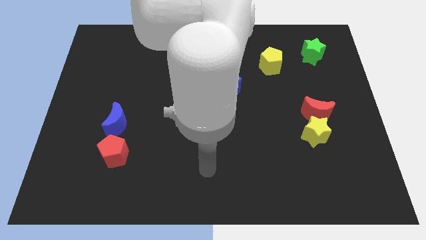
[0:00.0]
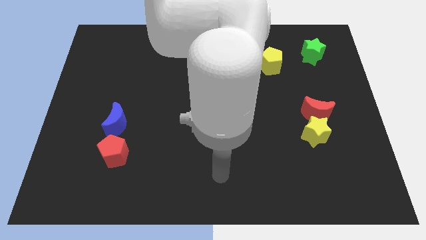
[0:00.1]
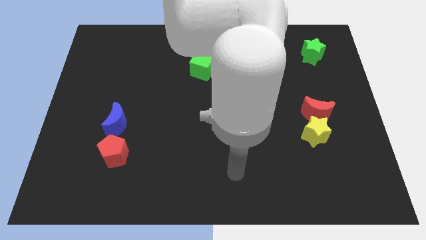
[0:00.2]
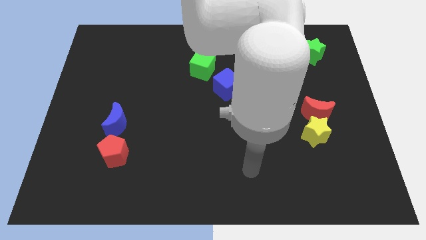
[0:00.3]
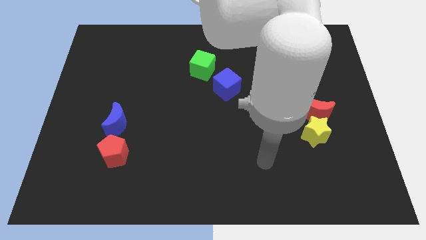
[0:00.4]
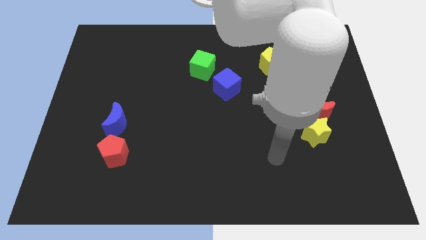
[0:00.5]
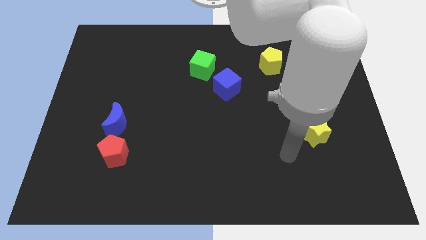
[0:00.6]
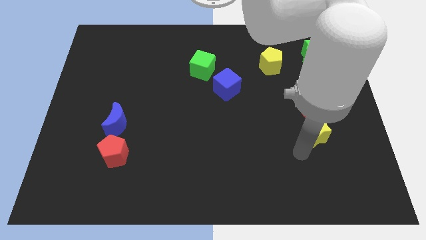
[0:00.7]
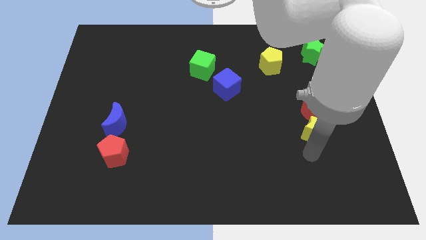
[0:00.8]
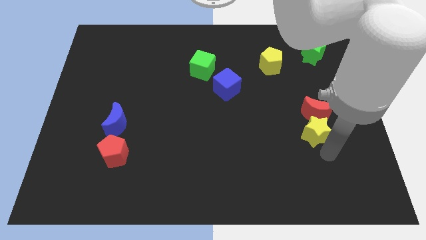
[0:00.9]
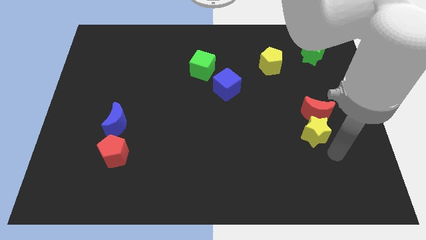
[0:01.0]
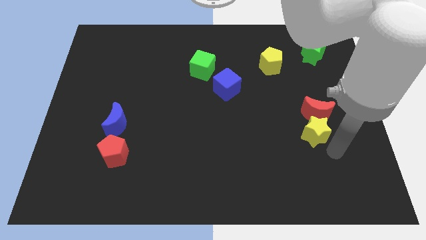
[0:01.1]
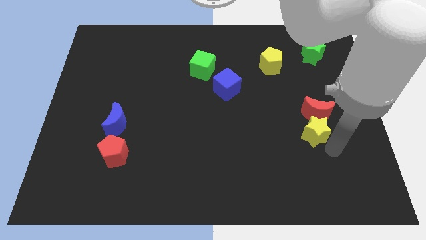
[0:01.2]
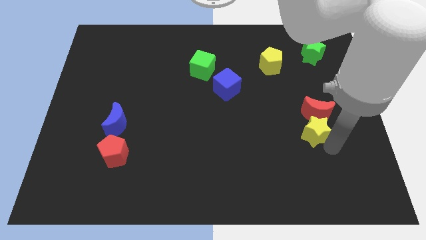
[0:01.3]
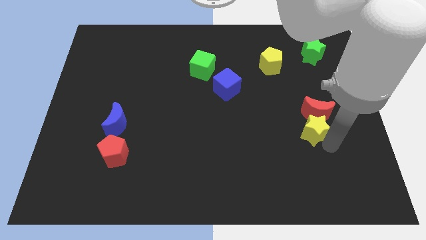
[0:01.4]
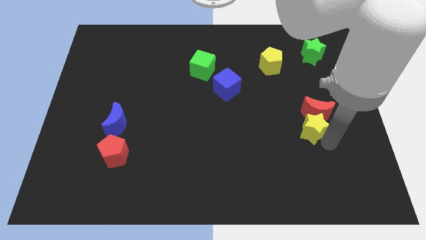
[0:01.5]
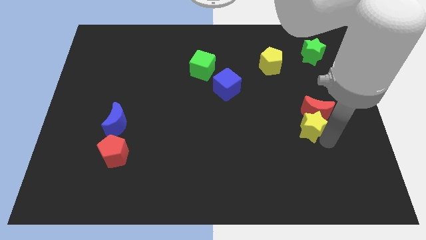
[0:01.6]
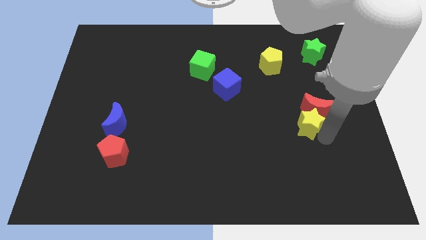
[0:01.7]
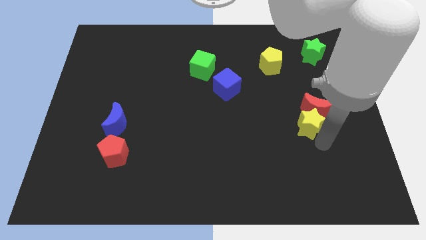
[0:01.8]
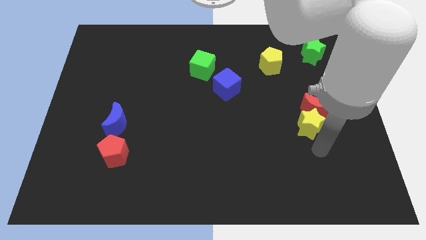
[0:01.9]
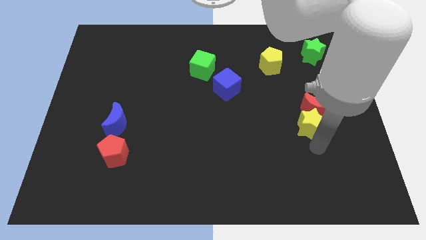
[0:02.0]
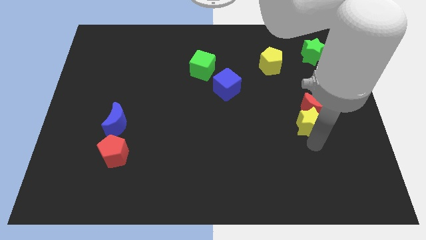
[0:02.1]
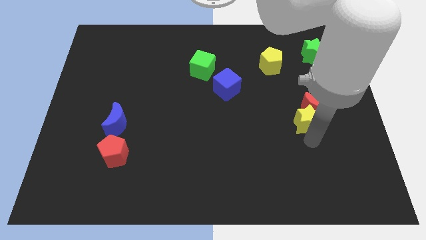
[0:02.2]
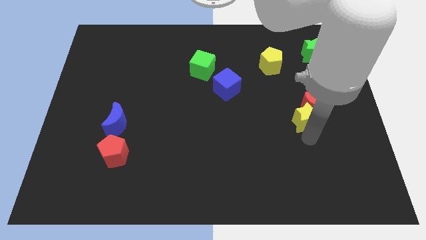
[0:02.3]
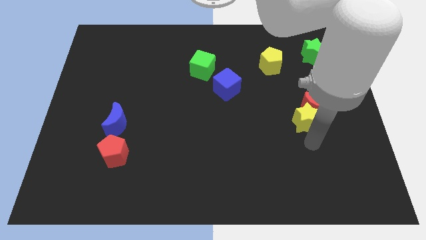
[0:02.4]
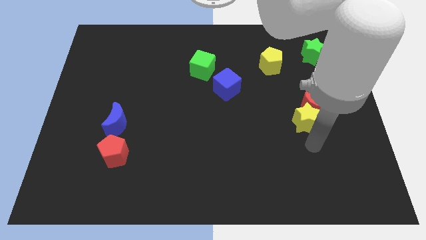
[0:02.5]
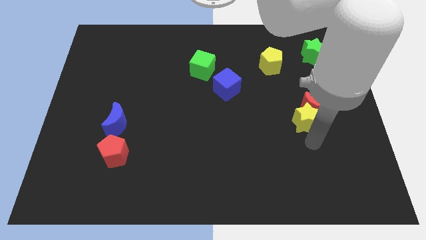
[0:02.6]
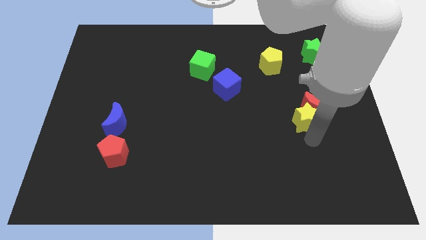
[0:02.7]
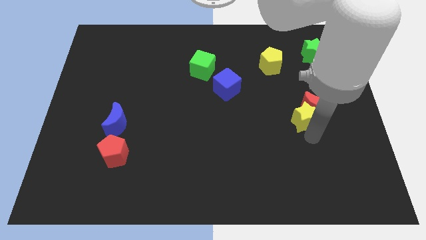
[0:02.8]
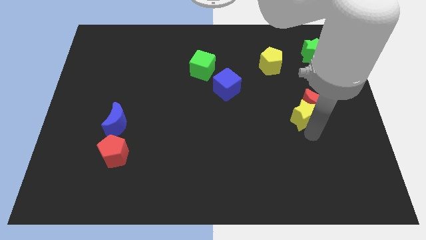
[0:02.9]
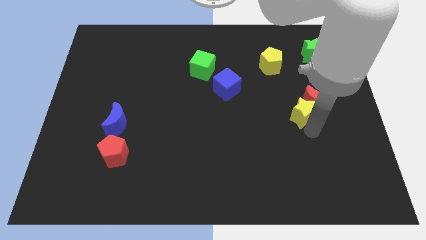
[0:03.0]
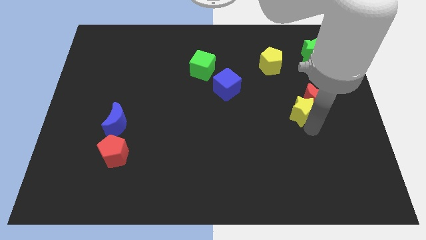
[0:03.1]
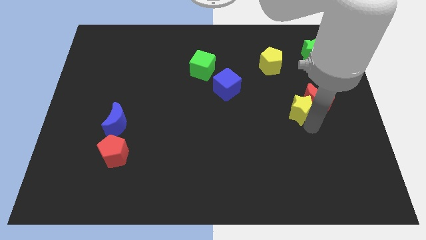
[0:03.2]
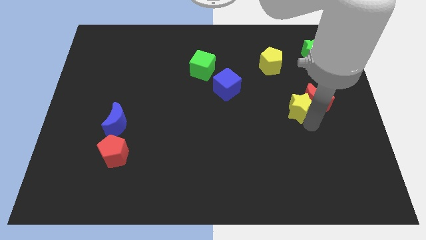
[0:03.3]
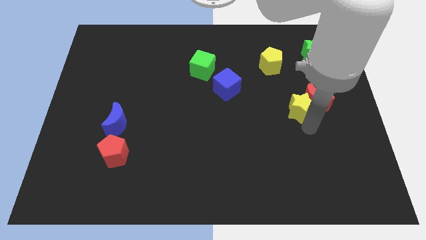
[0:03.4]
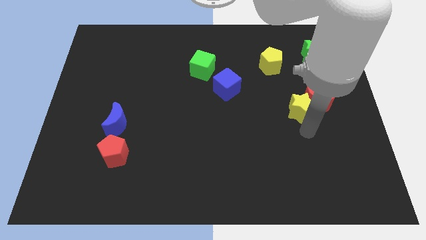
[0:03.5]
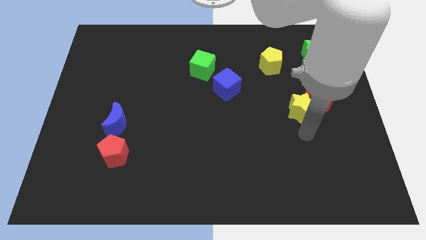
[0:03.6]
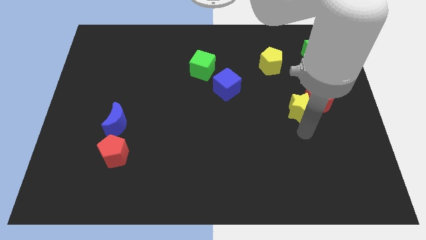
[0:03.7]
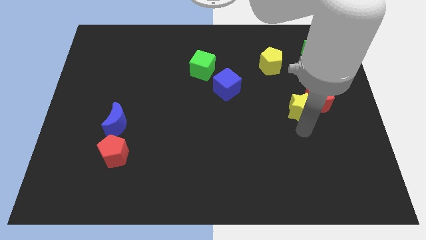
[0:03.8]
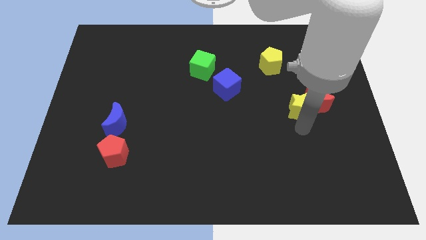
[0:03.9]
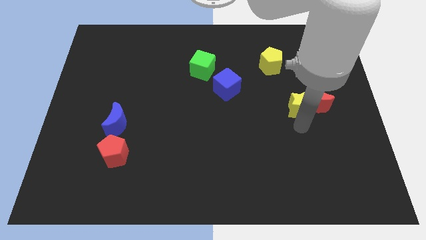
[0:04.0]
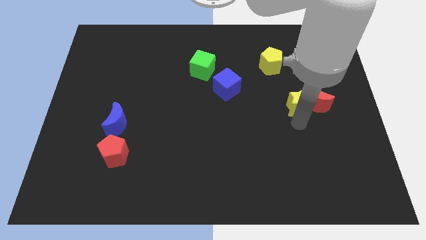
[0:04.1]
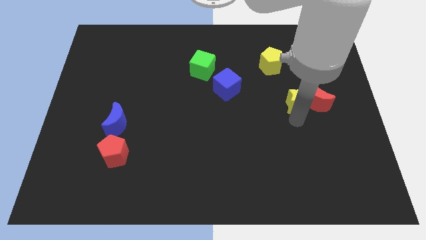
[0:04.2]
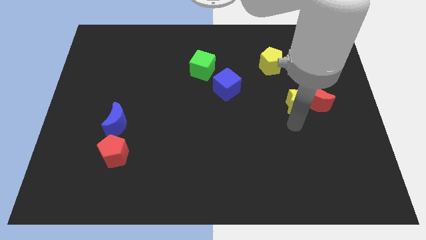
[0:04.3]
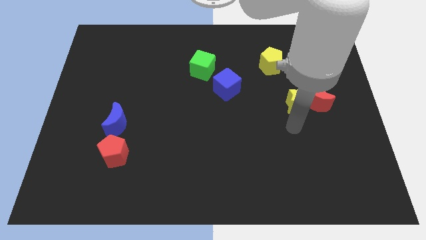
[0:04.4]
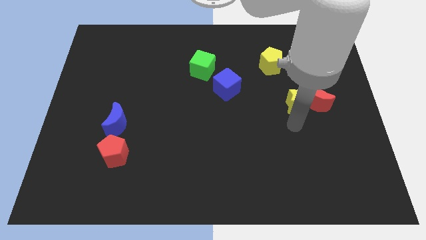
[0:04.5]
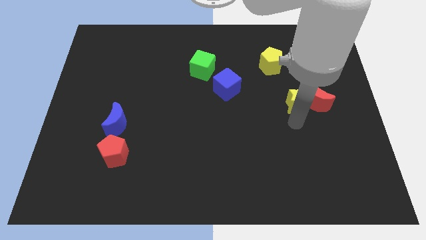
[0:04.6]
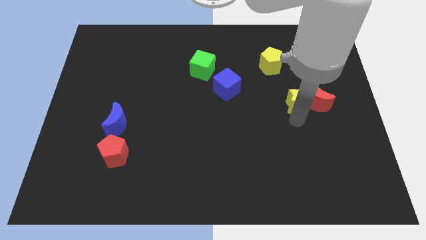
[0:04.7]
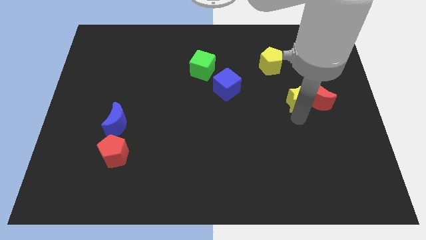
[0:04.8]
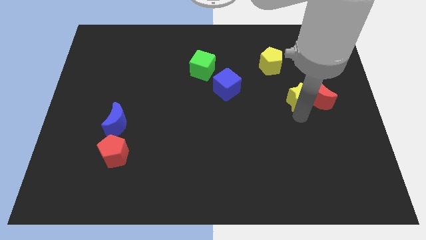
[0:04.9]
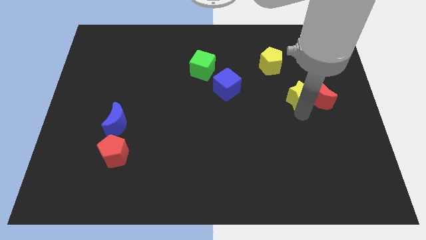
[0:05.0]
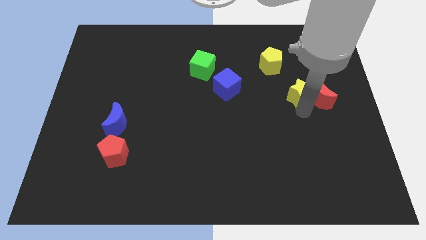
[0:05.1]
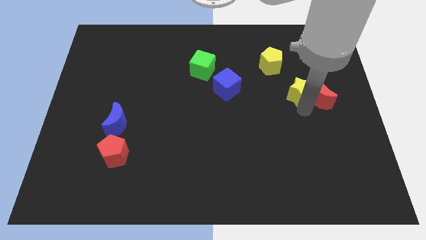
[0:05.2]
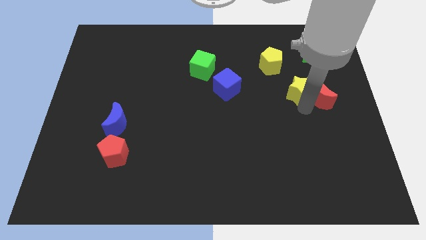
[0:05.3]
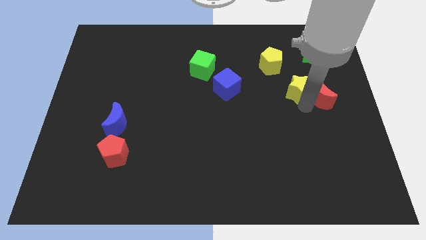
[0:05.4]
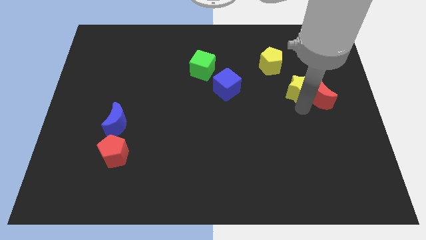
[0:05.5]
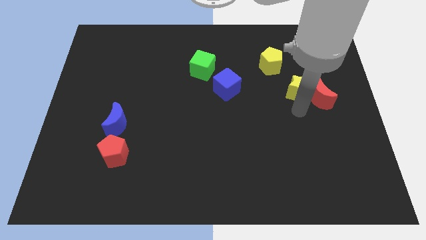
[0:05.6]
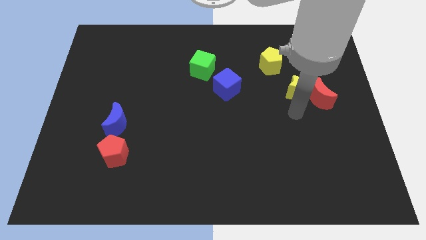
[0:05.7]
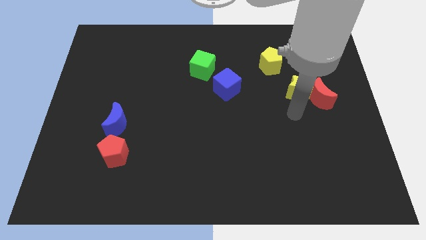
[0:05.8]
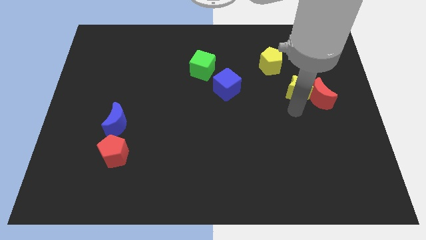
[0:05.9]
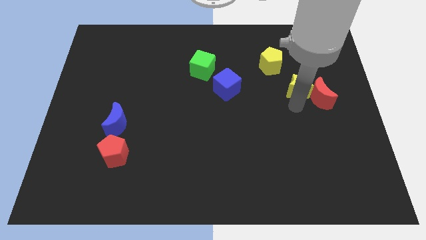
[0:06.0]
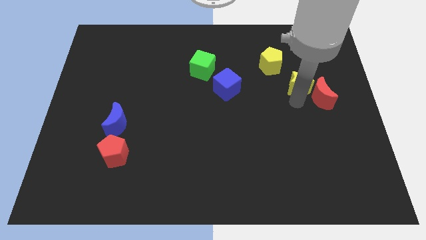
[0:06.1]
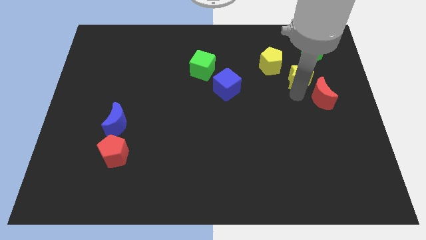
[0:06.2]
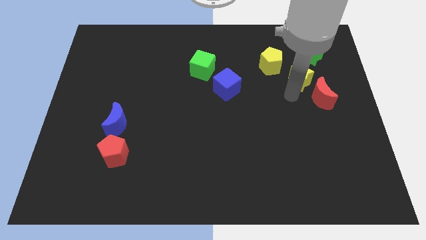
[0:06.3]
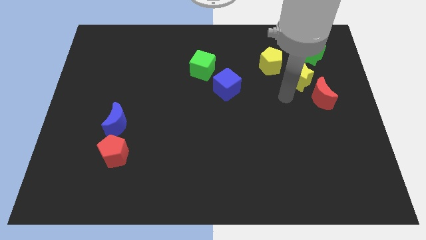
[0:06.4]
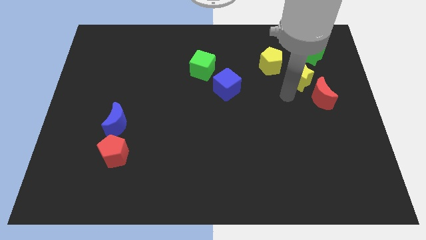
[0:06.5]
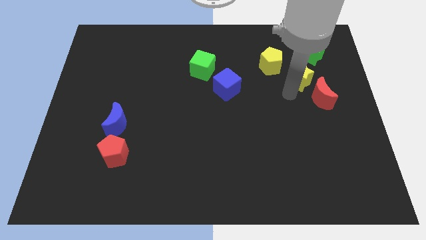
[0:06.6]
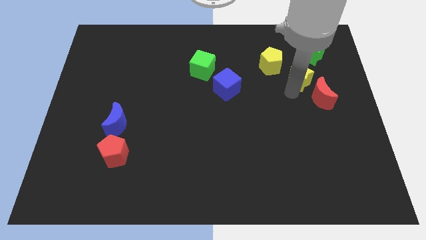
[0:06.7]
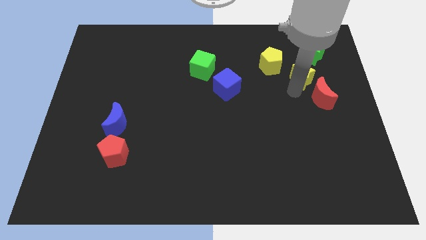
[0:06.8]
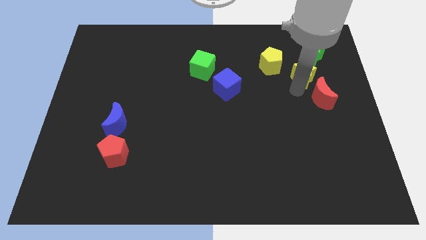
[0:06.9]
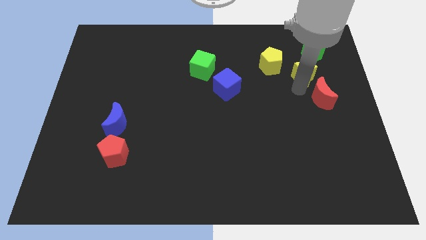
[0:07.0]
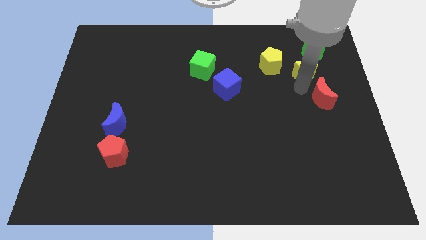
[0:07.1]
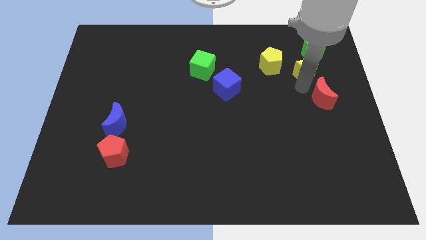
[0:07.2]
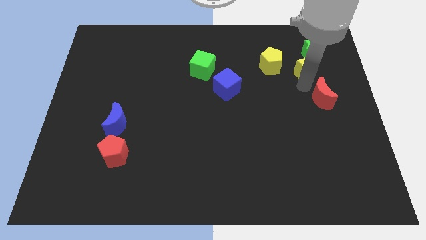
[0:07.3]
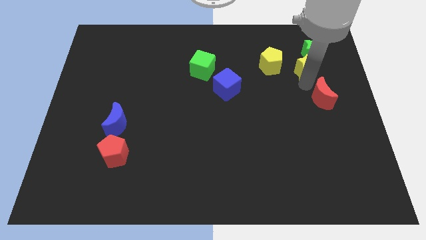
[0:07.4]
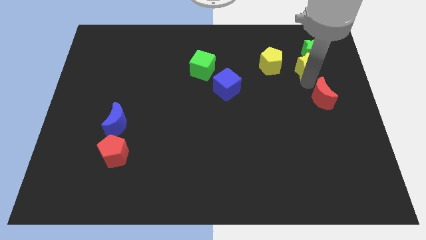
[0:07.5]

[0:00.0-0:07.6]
put the yellow star close to the green star
